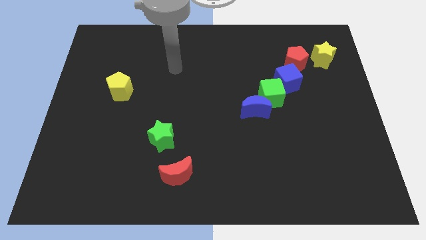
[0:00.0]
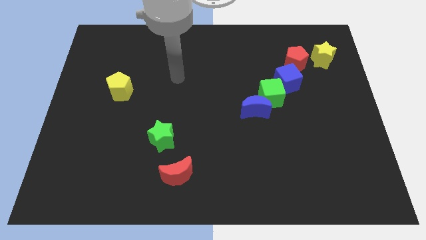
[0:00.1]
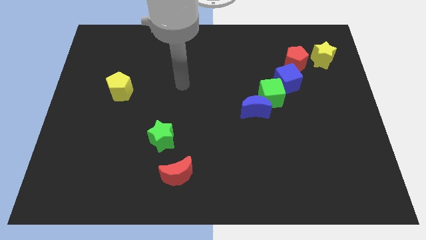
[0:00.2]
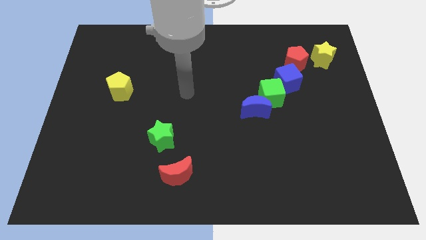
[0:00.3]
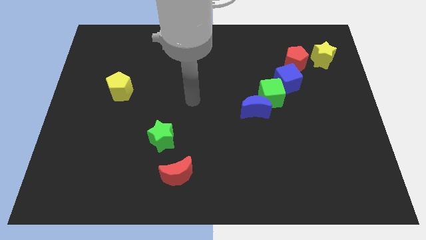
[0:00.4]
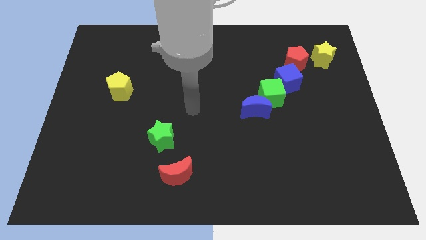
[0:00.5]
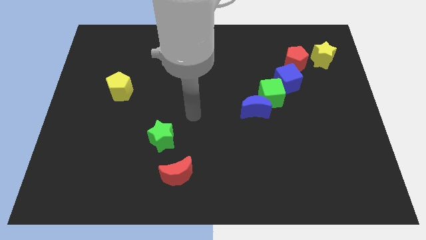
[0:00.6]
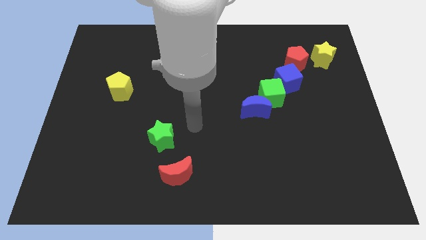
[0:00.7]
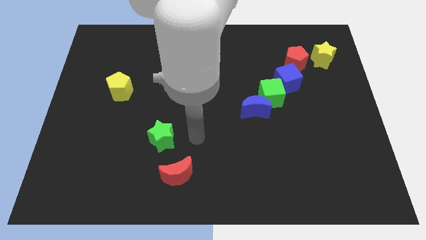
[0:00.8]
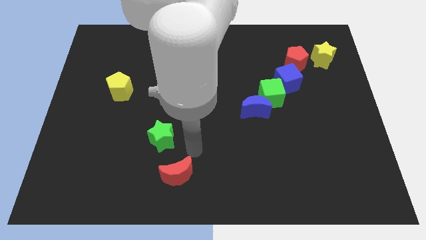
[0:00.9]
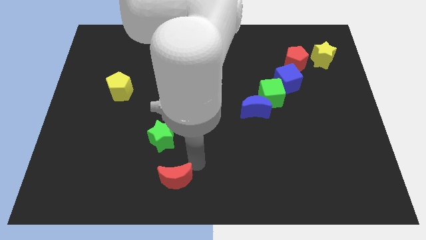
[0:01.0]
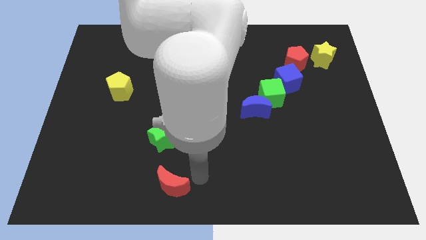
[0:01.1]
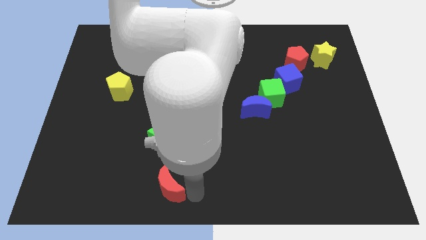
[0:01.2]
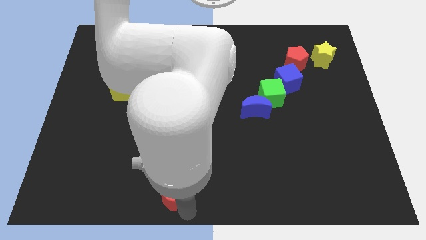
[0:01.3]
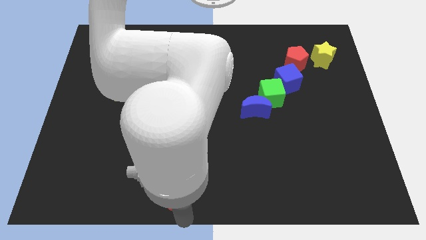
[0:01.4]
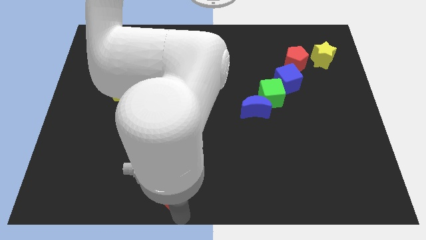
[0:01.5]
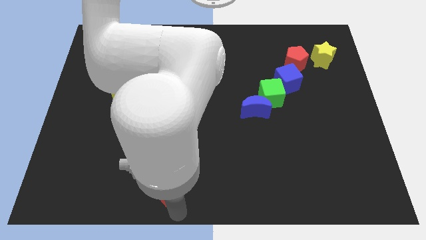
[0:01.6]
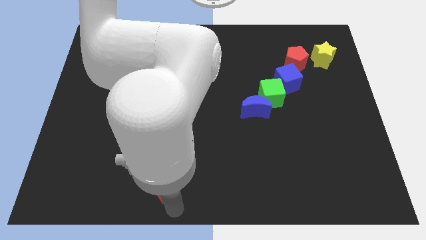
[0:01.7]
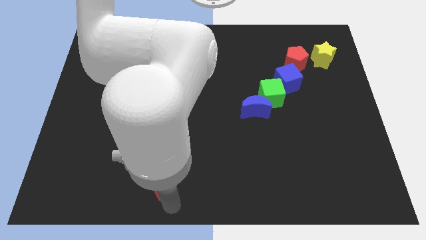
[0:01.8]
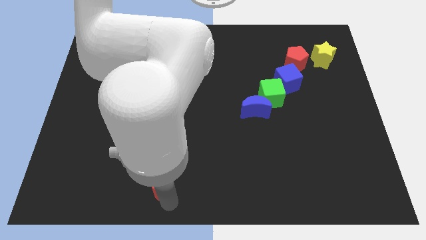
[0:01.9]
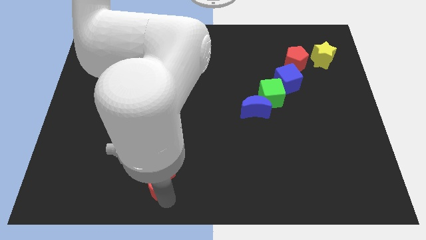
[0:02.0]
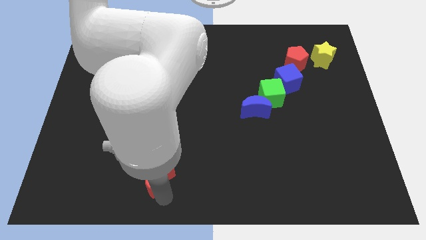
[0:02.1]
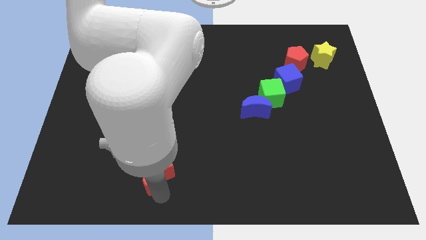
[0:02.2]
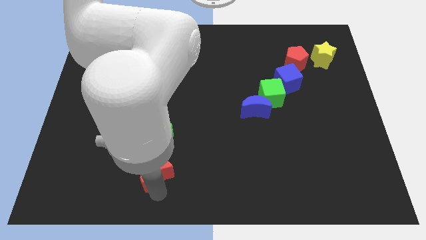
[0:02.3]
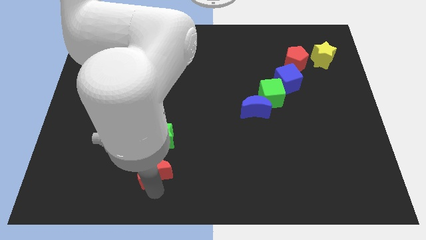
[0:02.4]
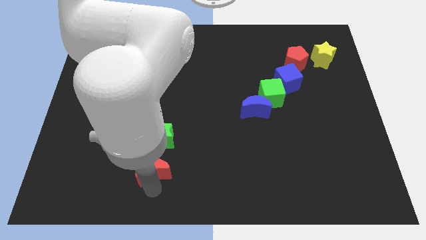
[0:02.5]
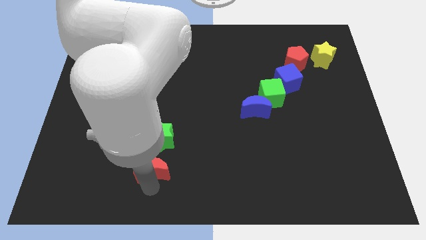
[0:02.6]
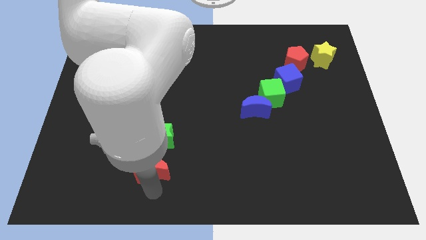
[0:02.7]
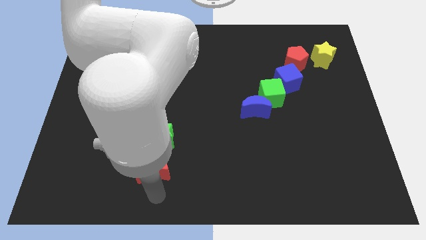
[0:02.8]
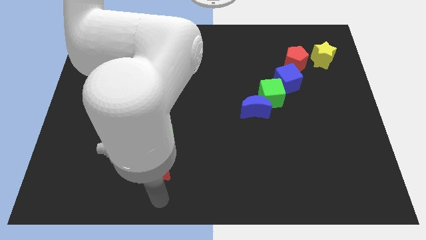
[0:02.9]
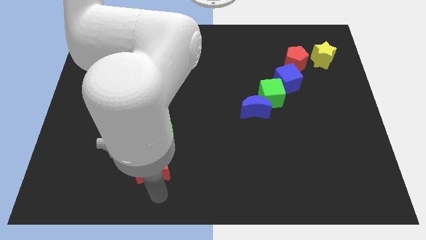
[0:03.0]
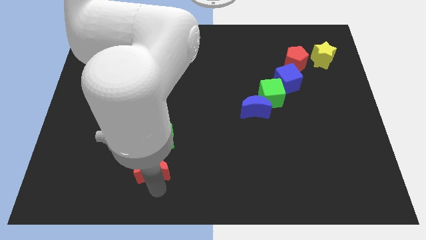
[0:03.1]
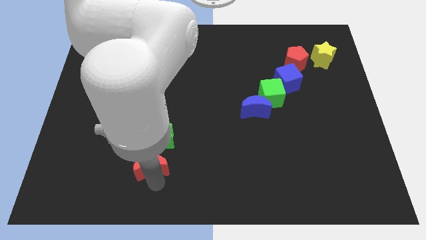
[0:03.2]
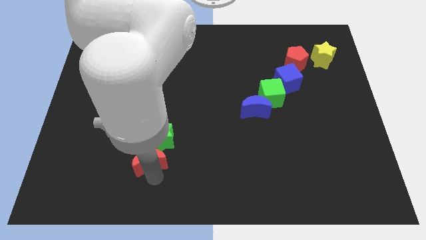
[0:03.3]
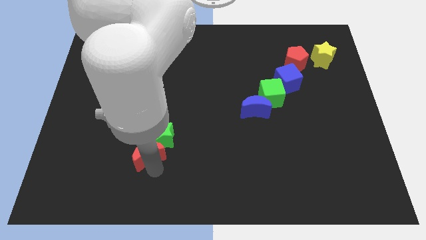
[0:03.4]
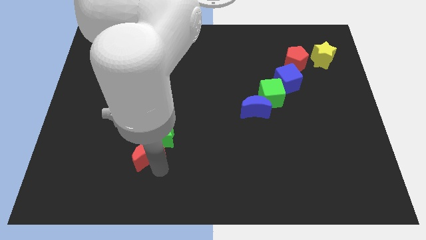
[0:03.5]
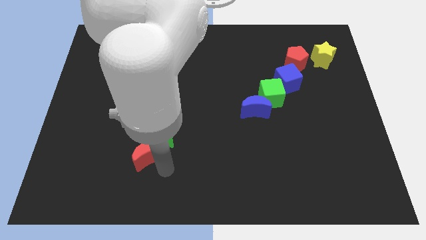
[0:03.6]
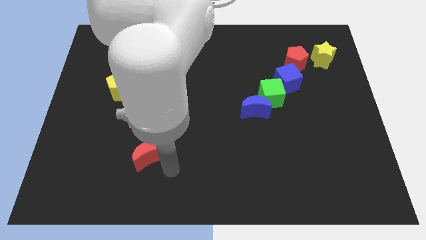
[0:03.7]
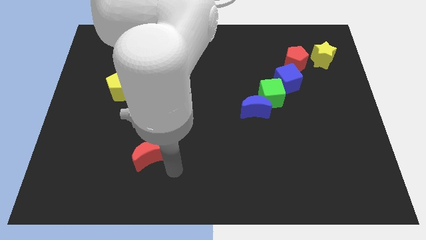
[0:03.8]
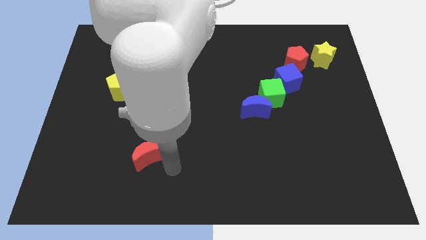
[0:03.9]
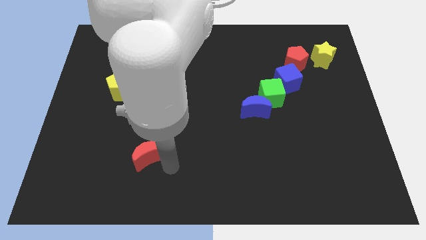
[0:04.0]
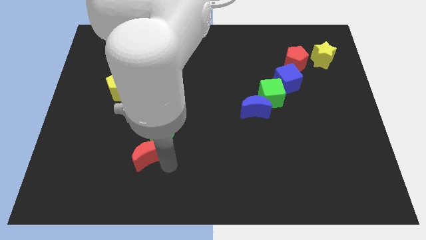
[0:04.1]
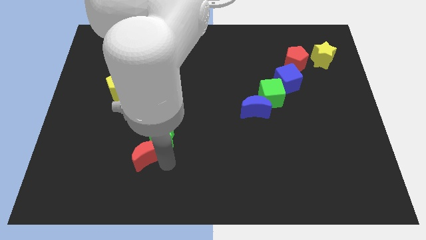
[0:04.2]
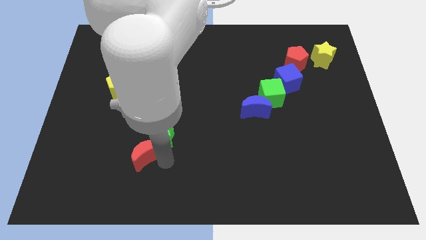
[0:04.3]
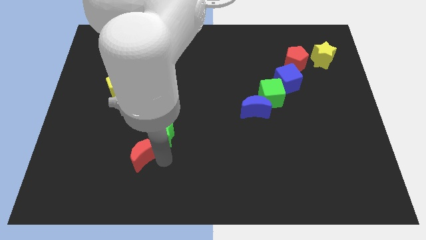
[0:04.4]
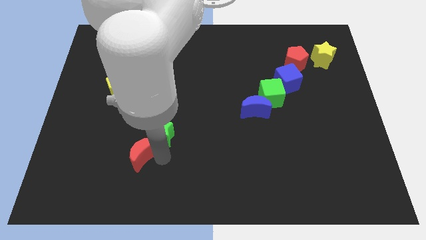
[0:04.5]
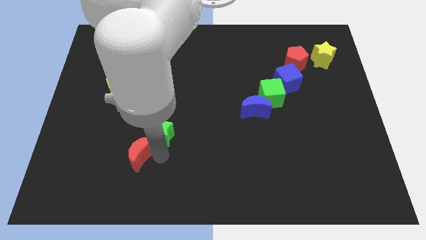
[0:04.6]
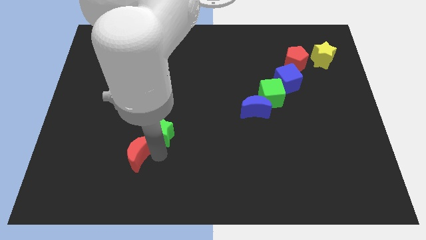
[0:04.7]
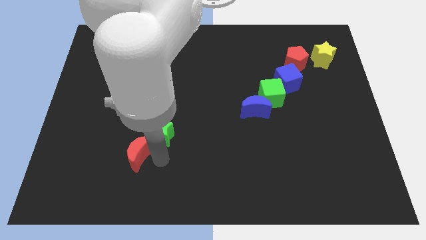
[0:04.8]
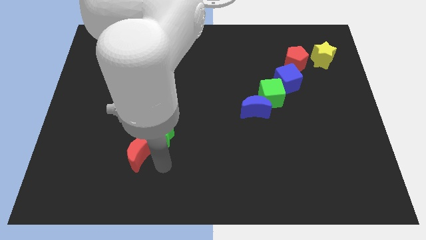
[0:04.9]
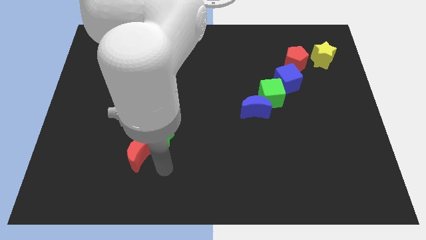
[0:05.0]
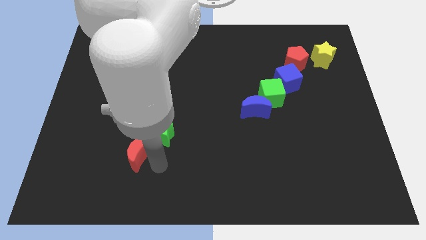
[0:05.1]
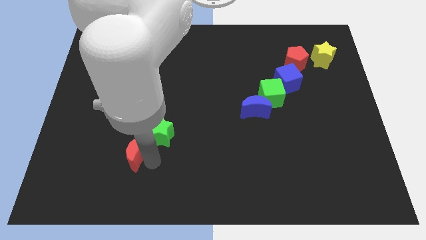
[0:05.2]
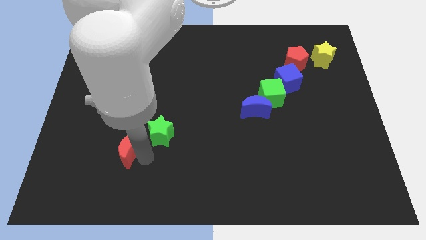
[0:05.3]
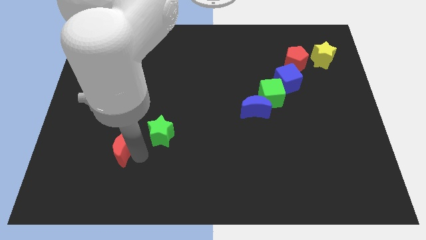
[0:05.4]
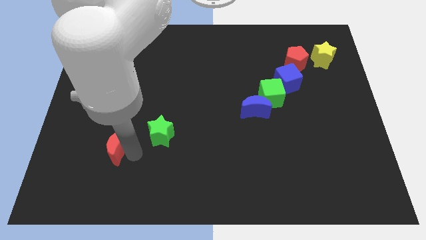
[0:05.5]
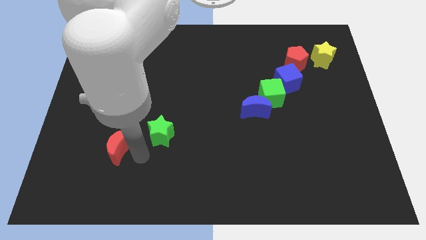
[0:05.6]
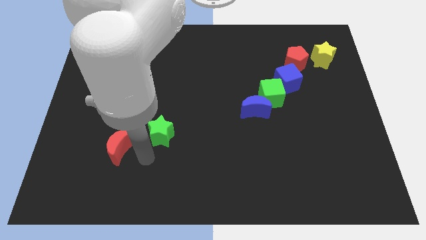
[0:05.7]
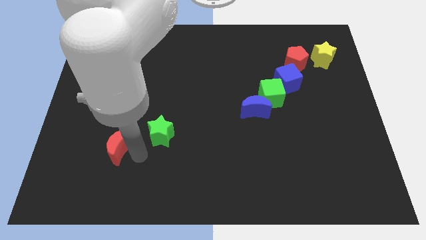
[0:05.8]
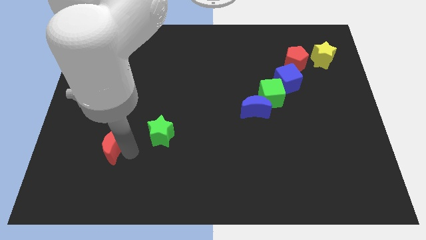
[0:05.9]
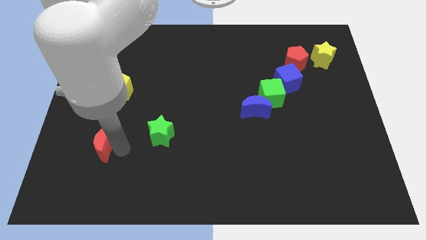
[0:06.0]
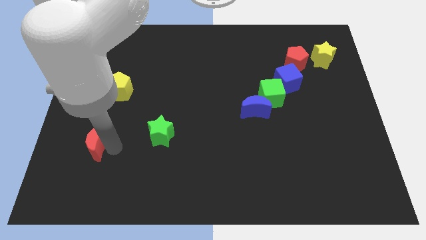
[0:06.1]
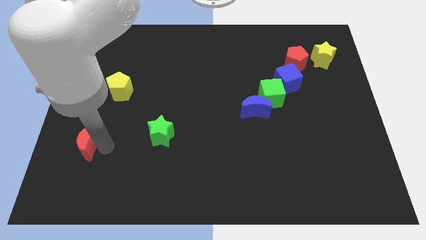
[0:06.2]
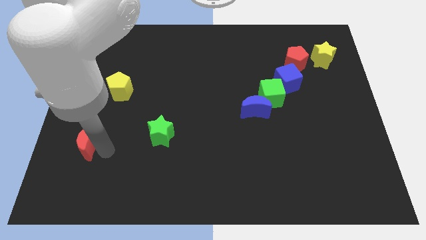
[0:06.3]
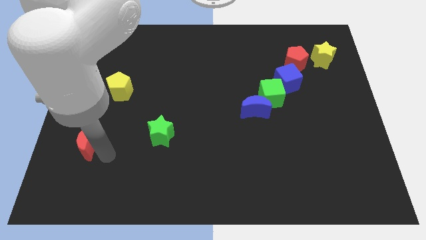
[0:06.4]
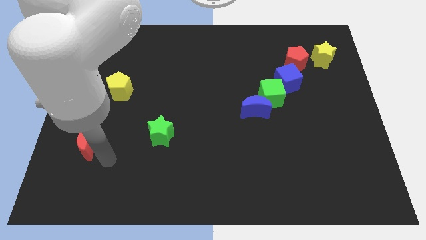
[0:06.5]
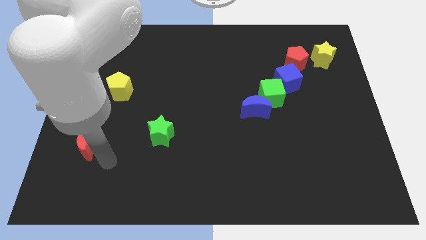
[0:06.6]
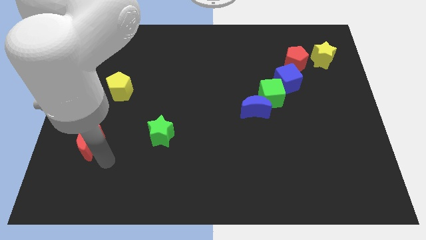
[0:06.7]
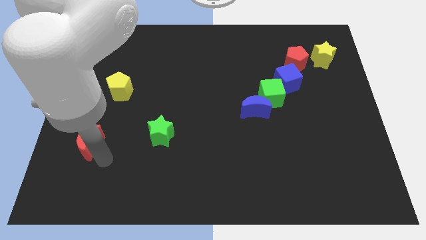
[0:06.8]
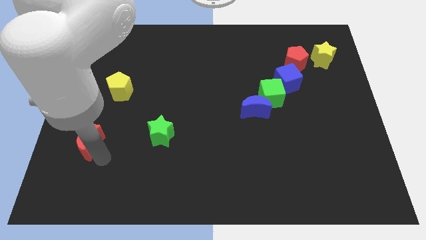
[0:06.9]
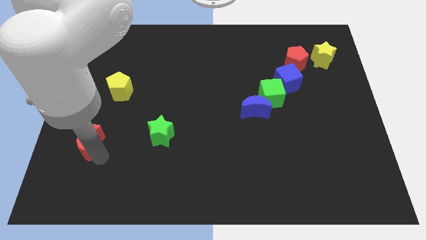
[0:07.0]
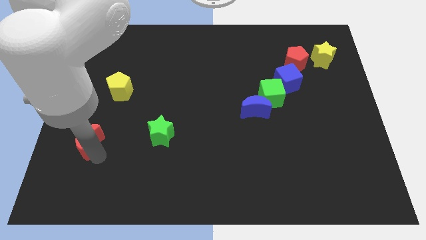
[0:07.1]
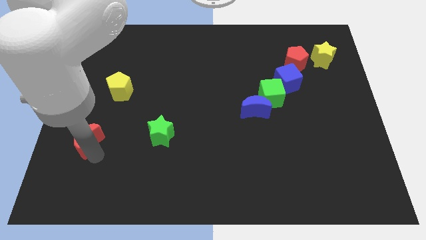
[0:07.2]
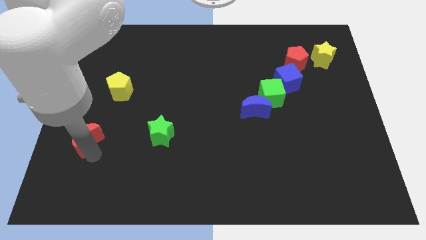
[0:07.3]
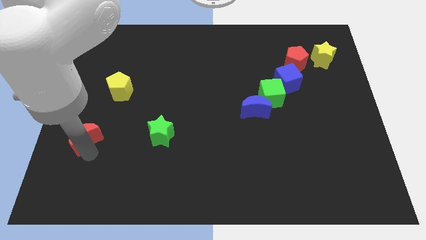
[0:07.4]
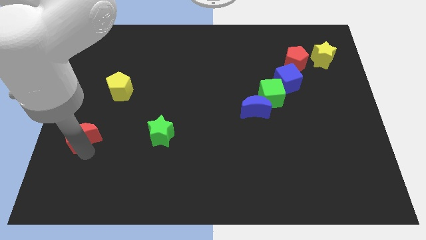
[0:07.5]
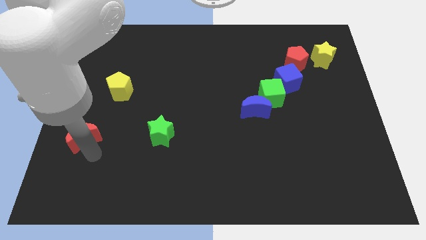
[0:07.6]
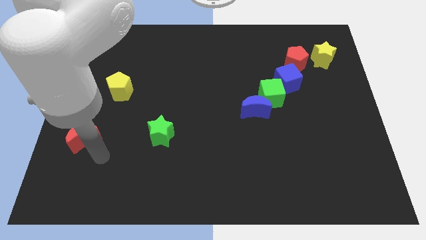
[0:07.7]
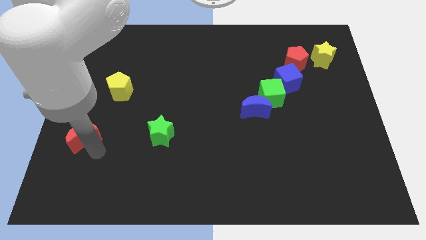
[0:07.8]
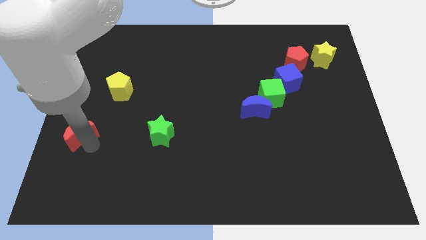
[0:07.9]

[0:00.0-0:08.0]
move the red moon to the center left

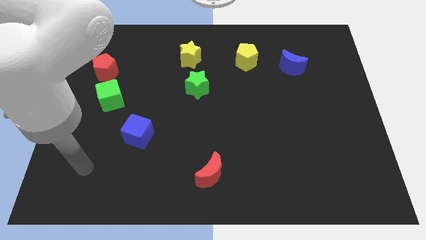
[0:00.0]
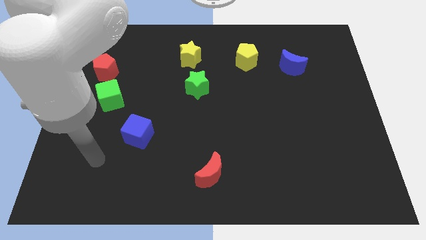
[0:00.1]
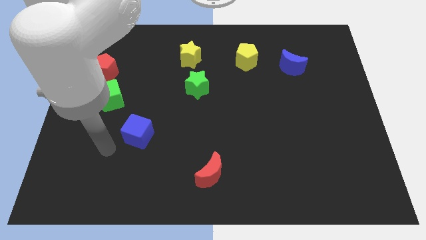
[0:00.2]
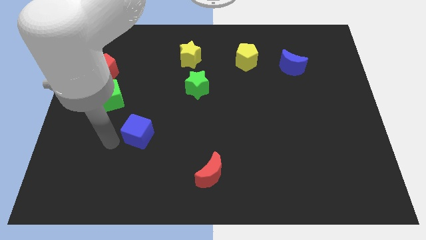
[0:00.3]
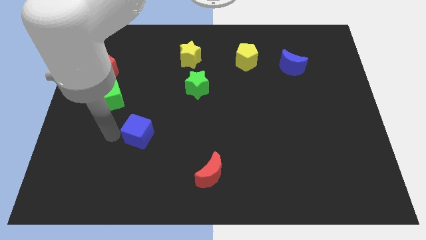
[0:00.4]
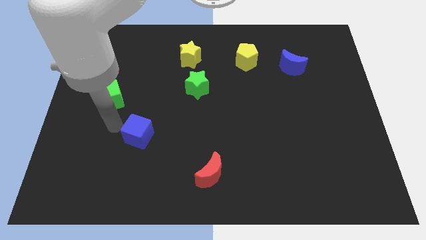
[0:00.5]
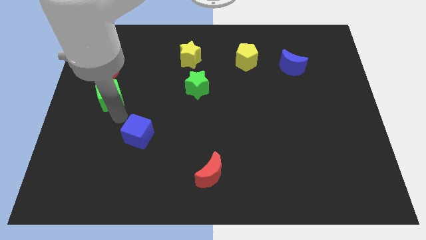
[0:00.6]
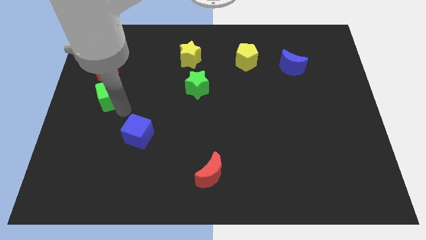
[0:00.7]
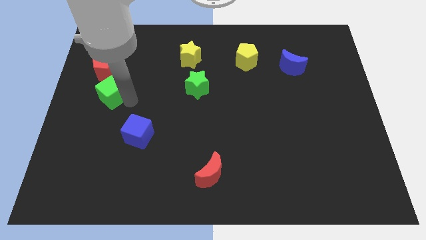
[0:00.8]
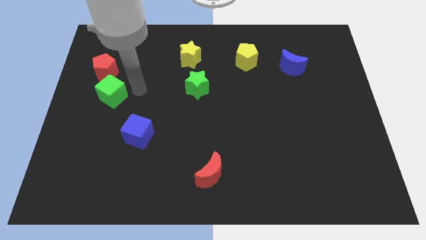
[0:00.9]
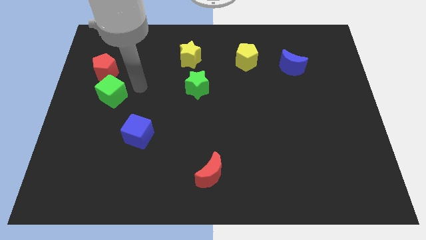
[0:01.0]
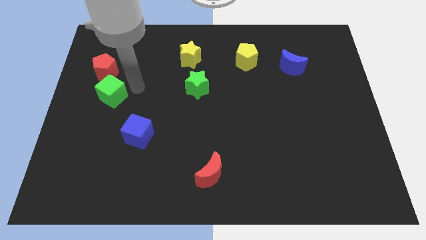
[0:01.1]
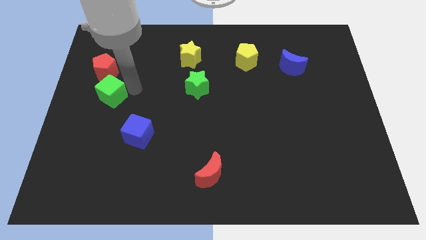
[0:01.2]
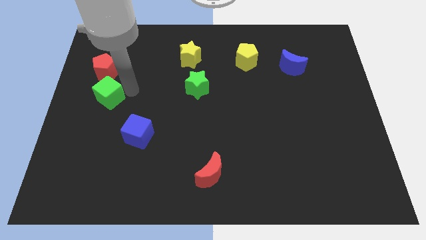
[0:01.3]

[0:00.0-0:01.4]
move the green cube to the center left
